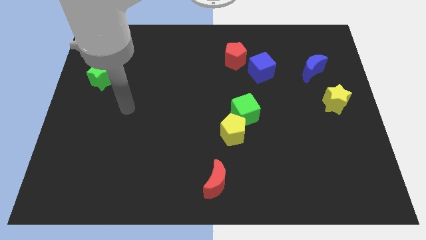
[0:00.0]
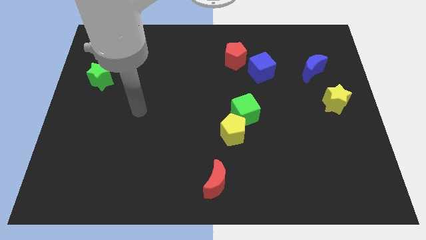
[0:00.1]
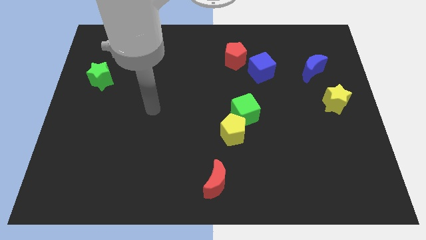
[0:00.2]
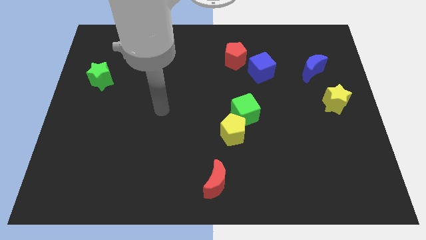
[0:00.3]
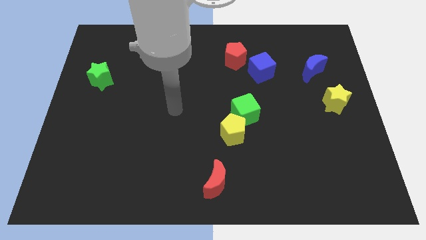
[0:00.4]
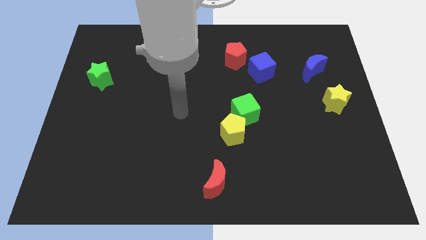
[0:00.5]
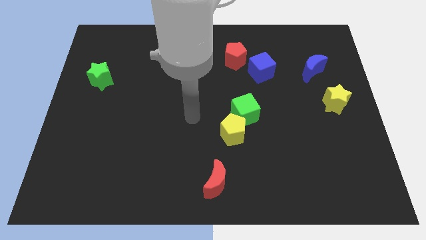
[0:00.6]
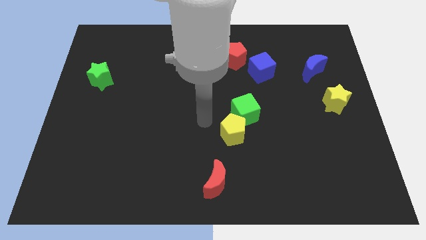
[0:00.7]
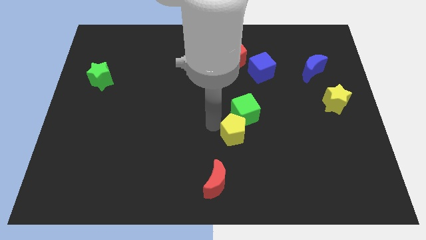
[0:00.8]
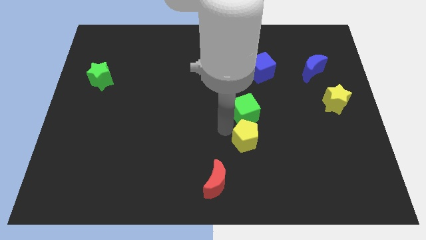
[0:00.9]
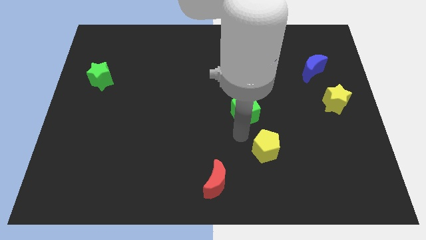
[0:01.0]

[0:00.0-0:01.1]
move the green cube away from the yellow pentagon

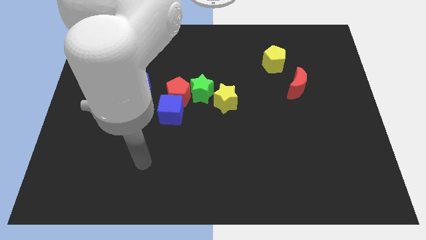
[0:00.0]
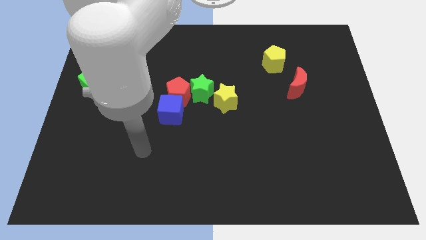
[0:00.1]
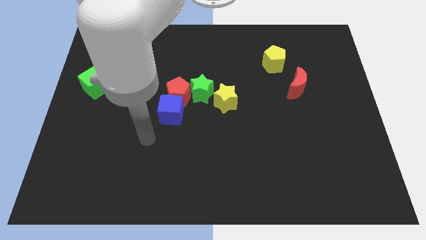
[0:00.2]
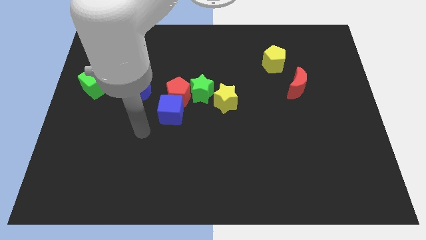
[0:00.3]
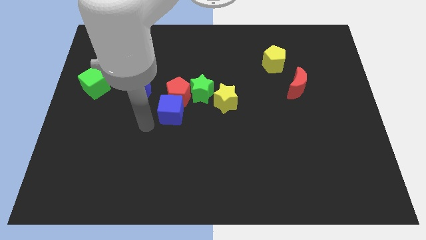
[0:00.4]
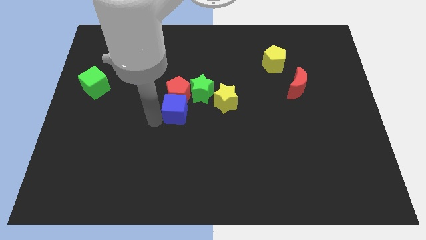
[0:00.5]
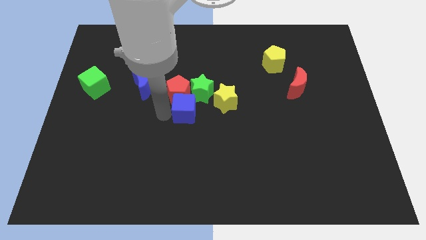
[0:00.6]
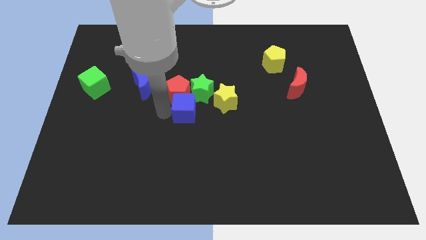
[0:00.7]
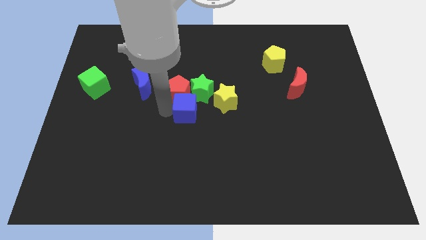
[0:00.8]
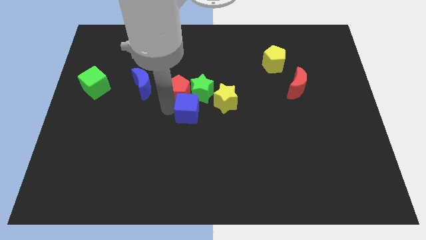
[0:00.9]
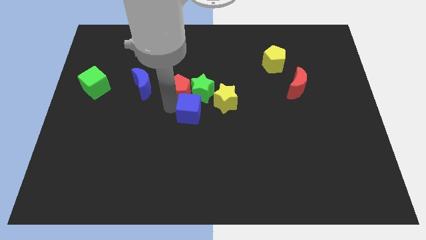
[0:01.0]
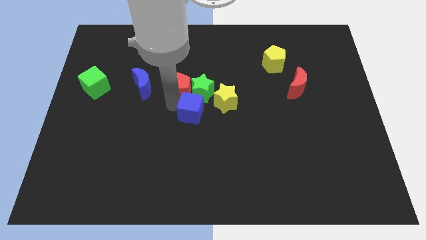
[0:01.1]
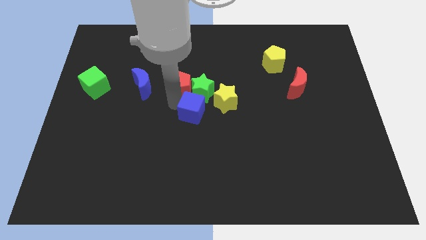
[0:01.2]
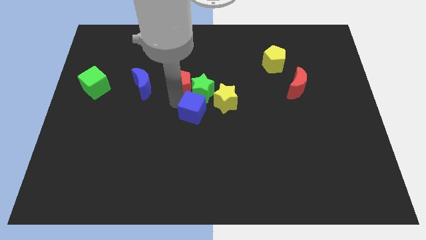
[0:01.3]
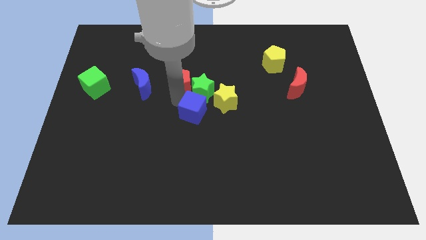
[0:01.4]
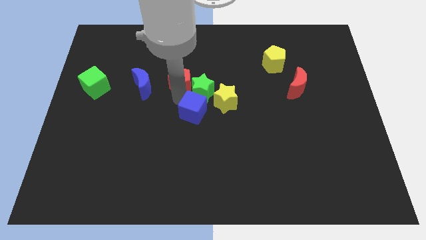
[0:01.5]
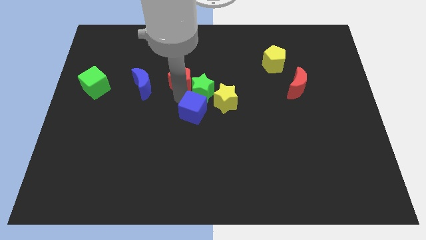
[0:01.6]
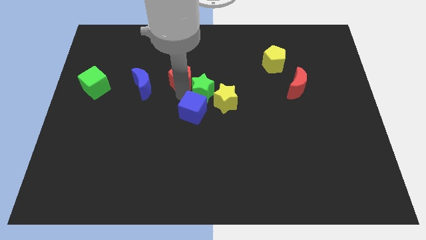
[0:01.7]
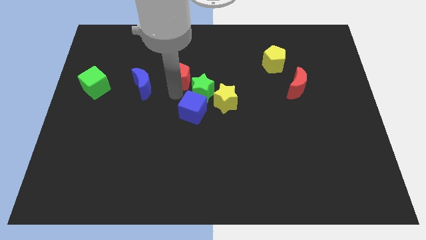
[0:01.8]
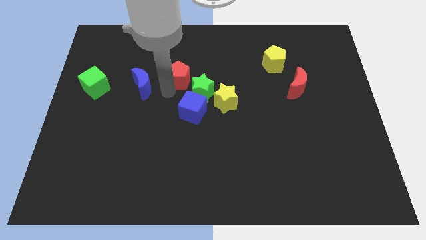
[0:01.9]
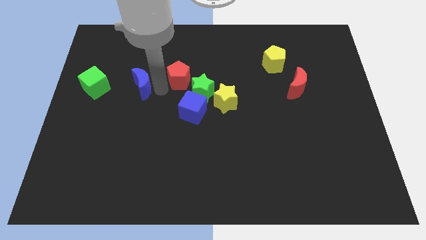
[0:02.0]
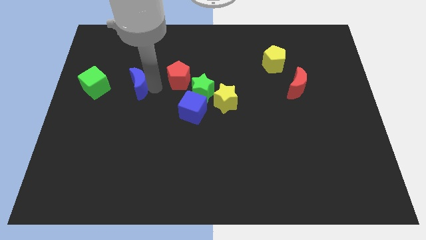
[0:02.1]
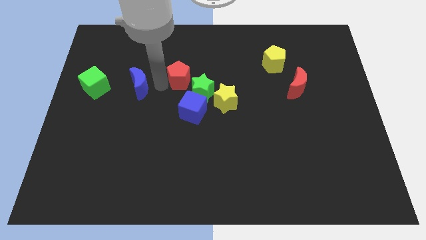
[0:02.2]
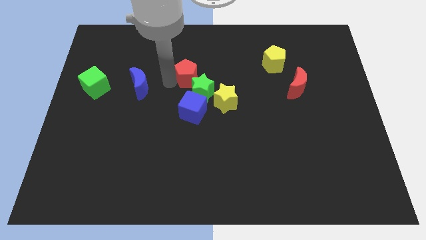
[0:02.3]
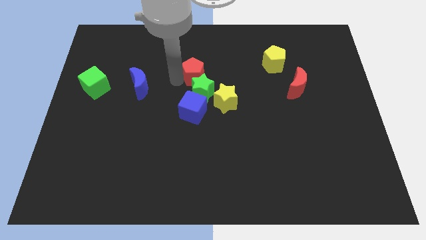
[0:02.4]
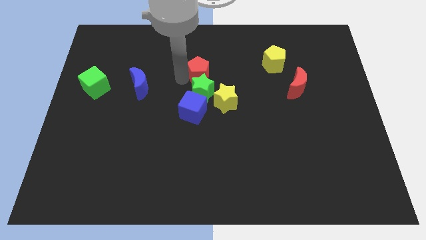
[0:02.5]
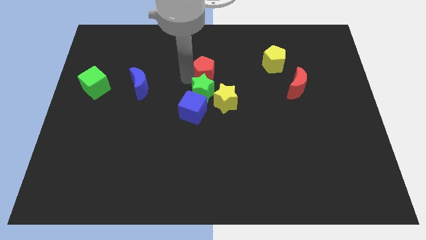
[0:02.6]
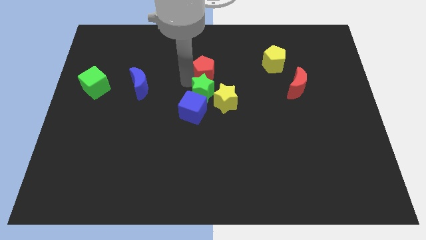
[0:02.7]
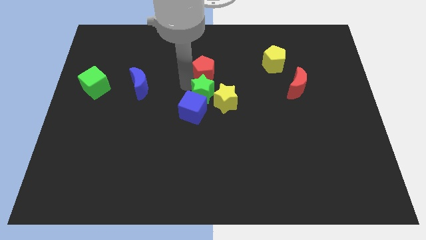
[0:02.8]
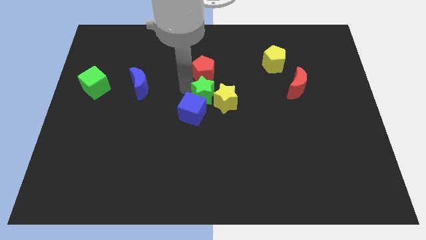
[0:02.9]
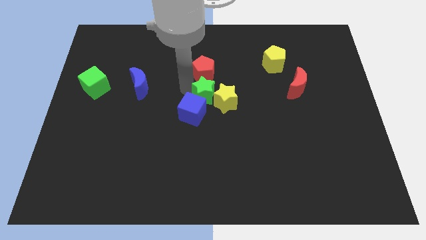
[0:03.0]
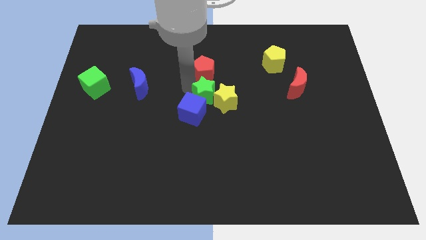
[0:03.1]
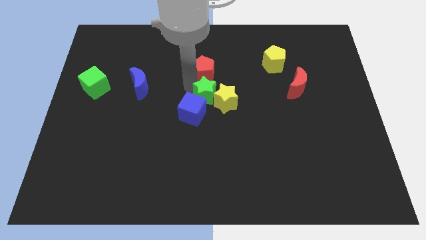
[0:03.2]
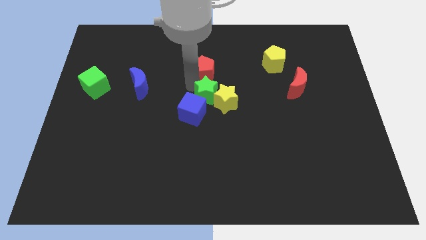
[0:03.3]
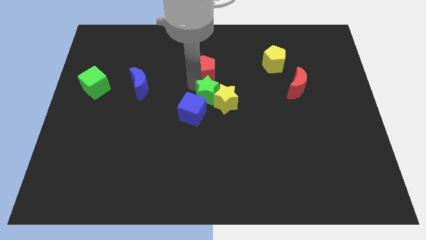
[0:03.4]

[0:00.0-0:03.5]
pull the red pentagon apart from the blue cube, green star, and blue moon

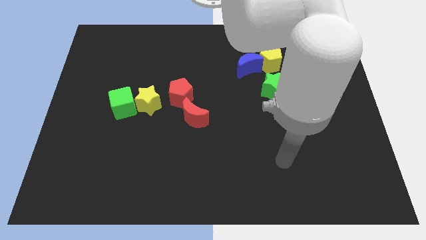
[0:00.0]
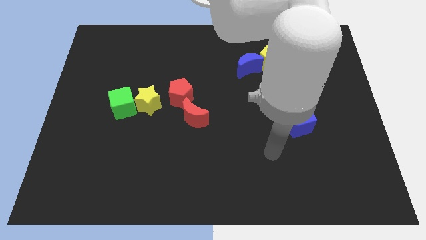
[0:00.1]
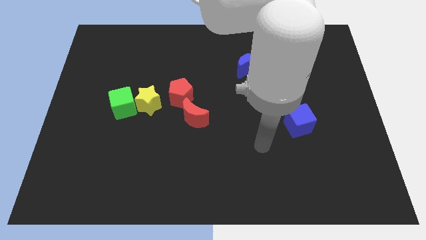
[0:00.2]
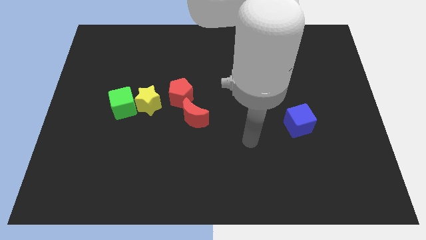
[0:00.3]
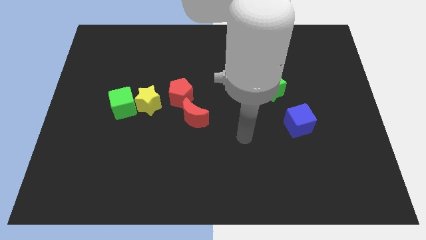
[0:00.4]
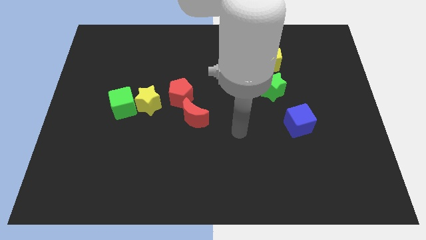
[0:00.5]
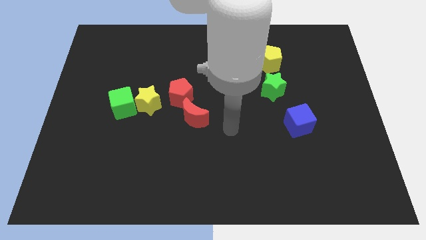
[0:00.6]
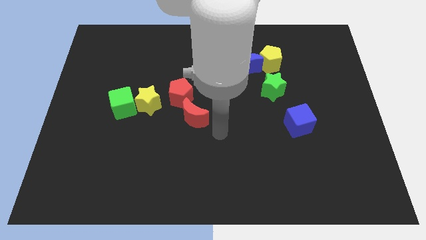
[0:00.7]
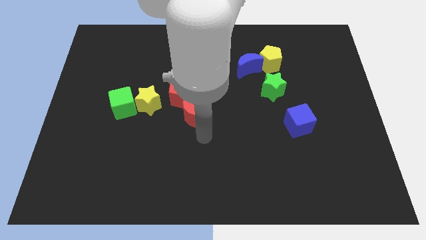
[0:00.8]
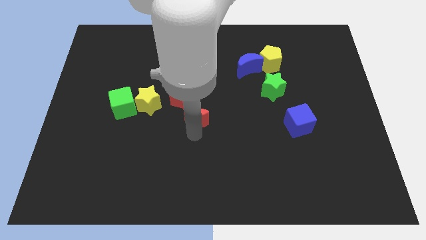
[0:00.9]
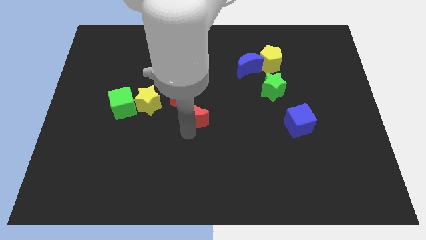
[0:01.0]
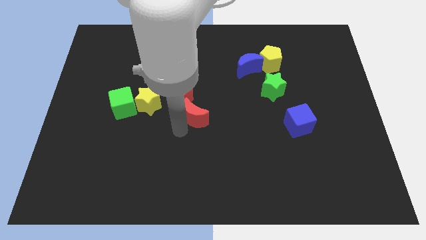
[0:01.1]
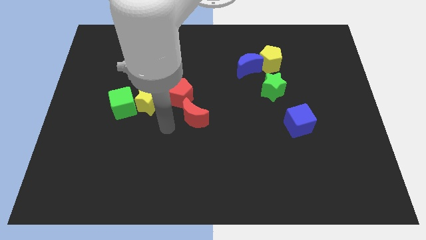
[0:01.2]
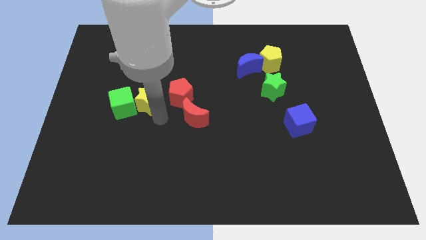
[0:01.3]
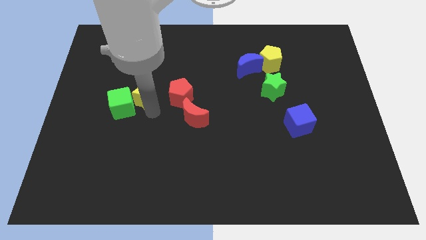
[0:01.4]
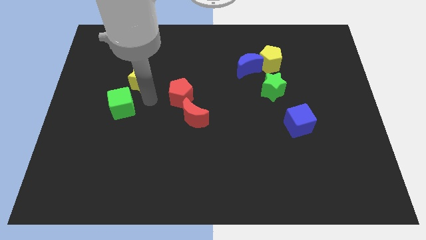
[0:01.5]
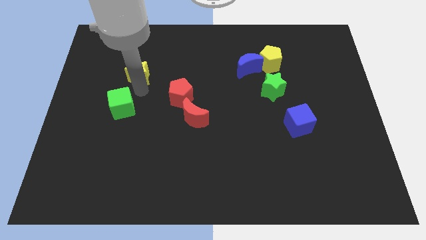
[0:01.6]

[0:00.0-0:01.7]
move the green cube away from the yellow star

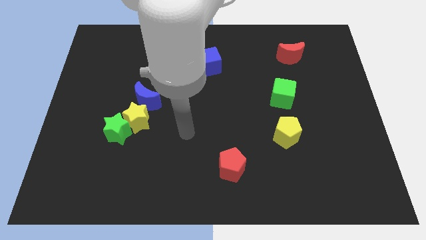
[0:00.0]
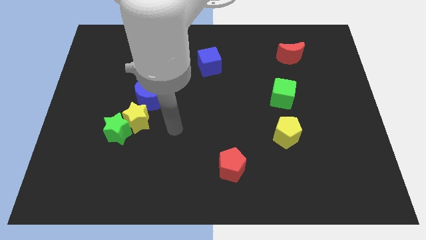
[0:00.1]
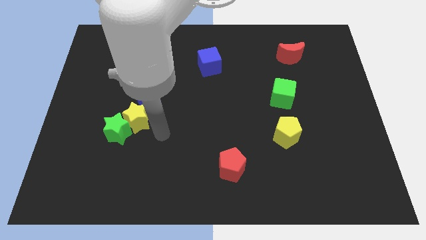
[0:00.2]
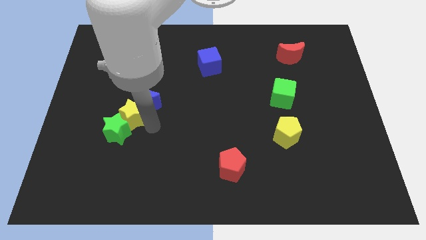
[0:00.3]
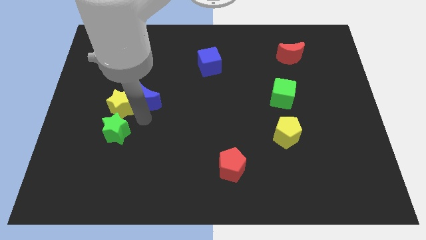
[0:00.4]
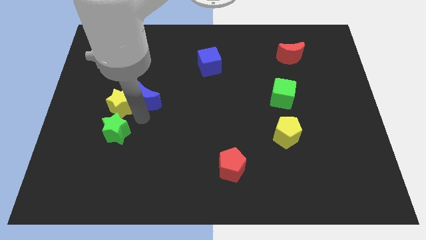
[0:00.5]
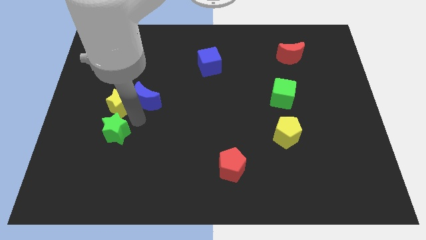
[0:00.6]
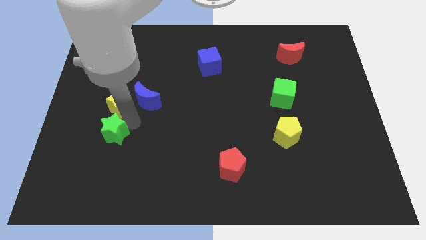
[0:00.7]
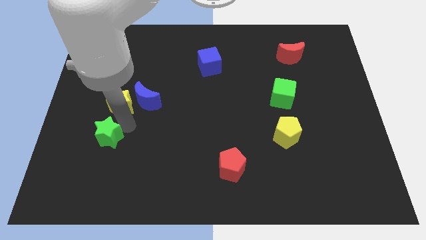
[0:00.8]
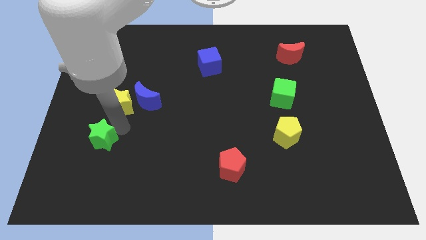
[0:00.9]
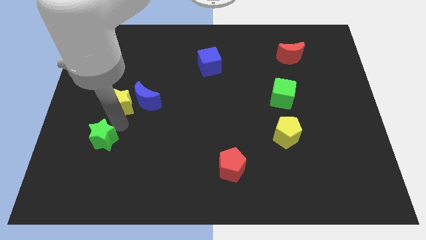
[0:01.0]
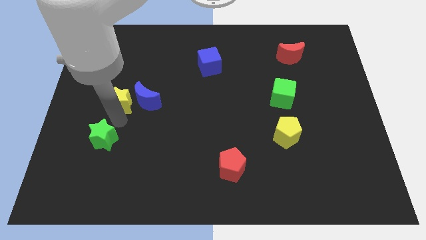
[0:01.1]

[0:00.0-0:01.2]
pull the green star apart from the yellow star

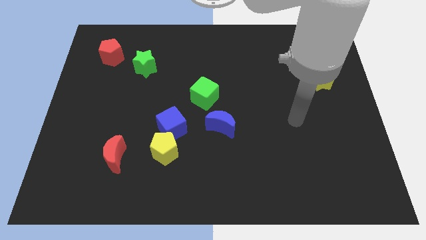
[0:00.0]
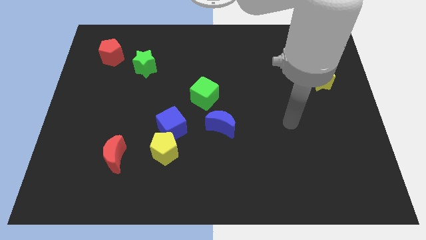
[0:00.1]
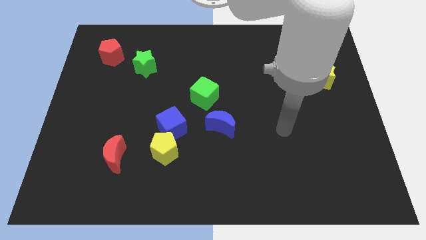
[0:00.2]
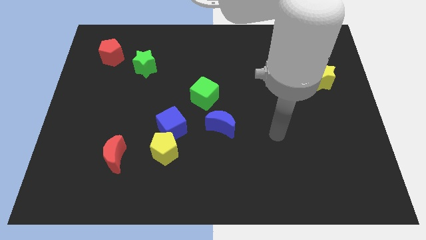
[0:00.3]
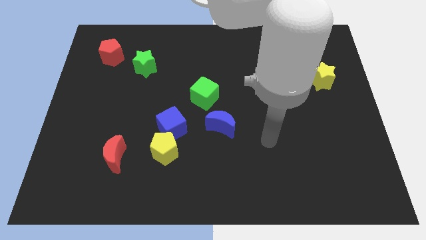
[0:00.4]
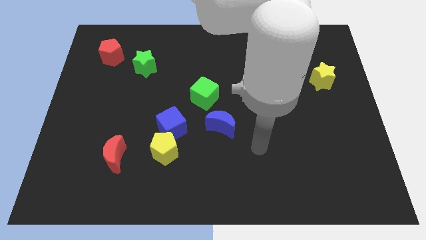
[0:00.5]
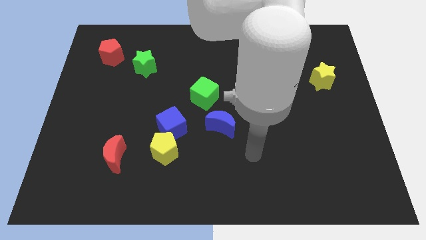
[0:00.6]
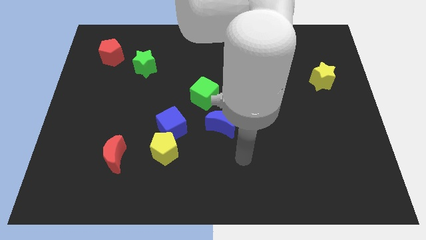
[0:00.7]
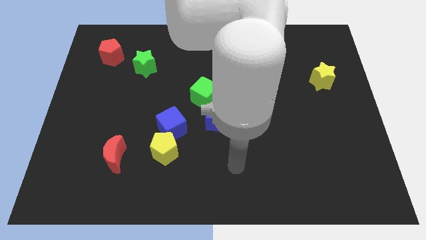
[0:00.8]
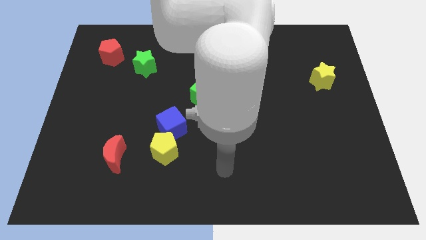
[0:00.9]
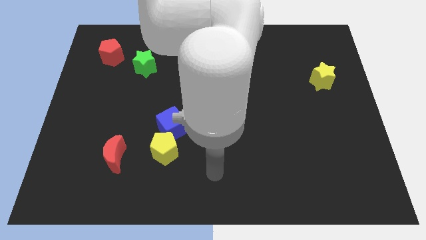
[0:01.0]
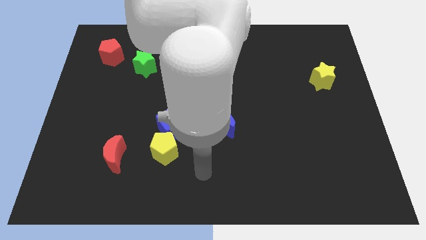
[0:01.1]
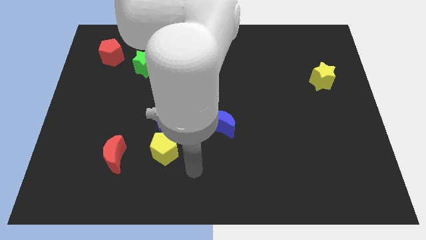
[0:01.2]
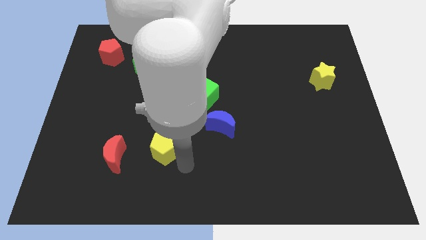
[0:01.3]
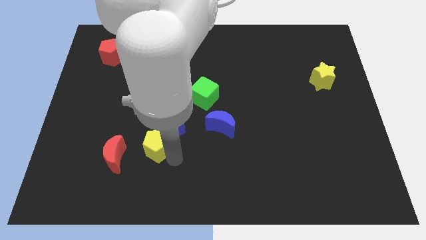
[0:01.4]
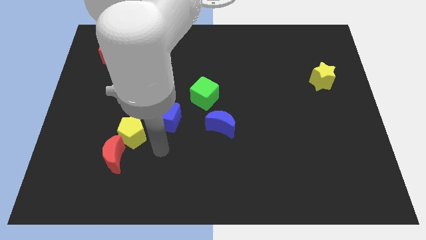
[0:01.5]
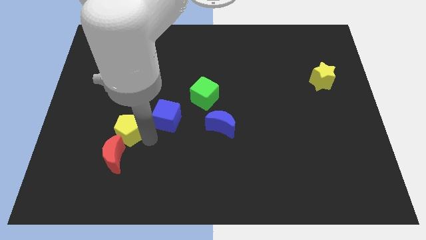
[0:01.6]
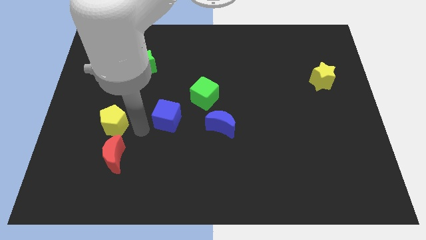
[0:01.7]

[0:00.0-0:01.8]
pull the blue cube apart from the yellow pentagon
